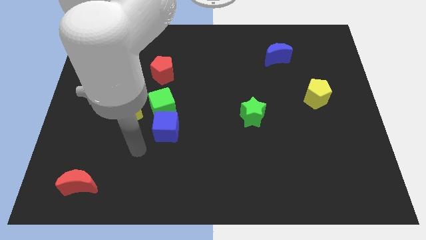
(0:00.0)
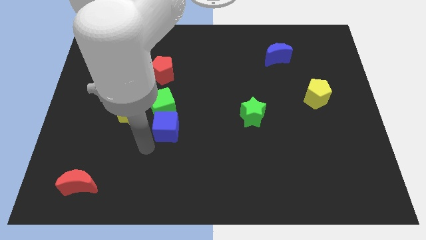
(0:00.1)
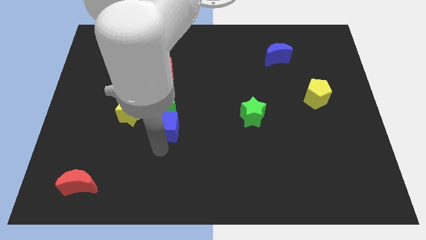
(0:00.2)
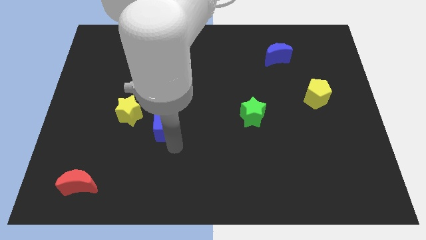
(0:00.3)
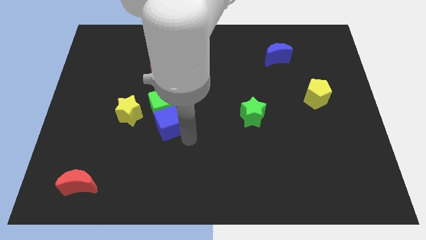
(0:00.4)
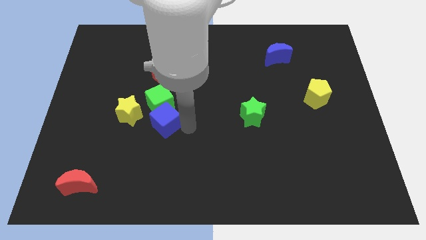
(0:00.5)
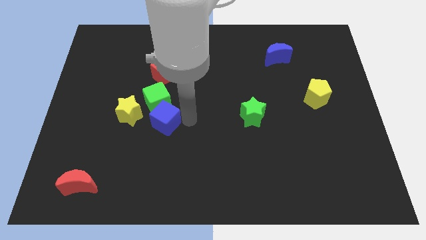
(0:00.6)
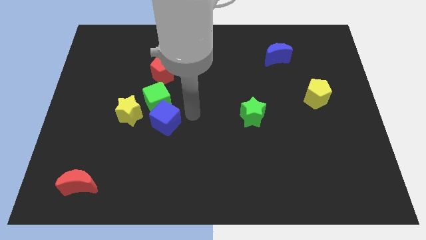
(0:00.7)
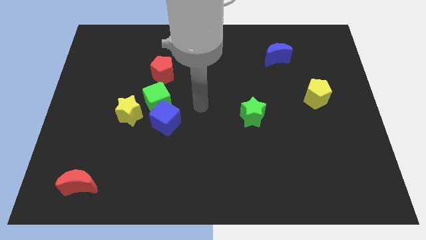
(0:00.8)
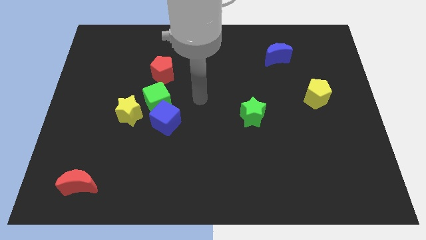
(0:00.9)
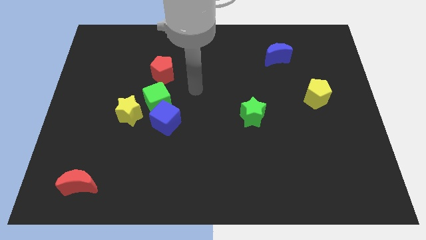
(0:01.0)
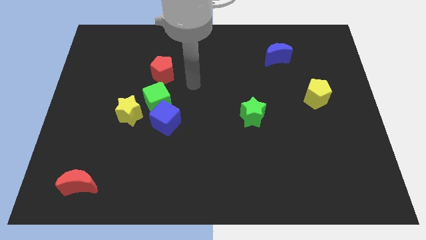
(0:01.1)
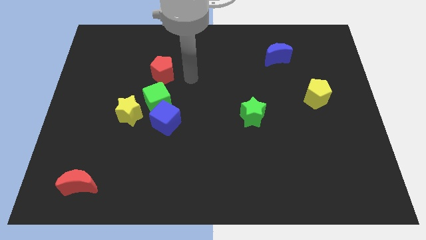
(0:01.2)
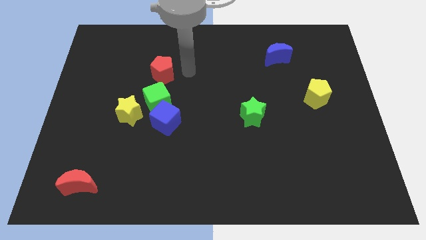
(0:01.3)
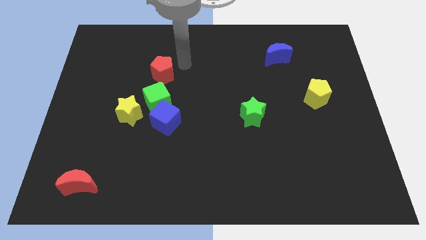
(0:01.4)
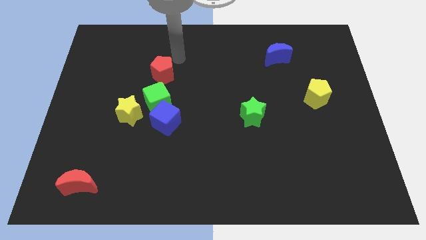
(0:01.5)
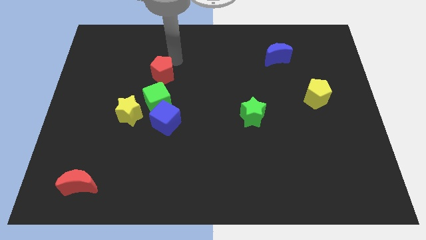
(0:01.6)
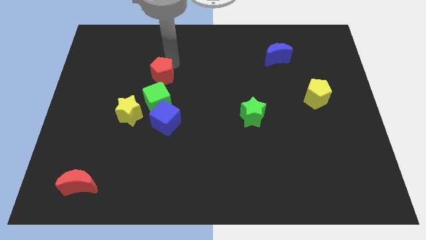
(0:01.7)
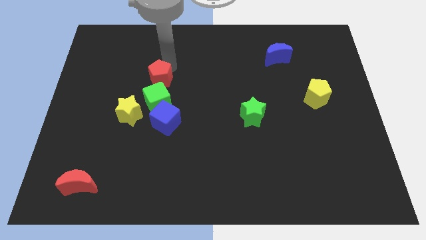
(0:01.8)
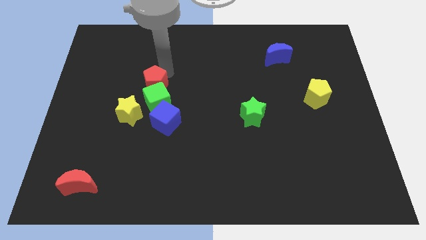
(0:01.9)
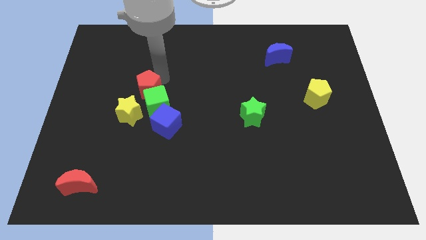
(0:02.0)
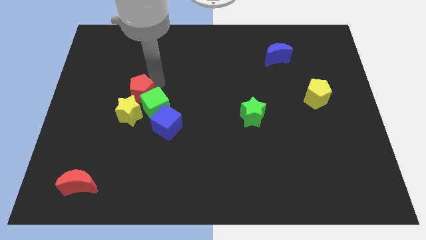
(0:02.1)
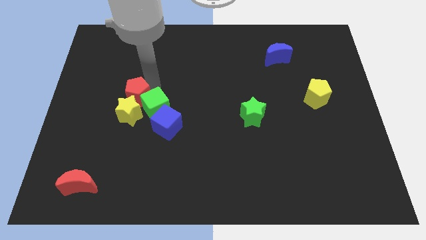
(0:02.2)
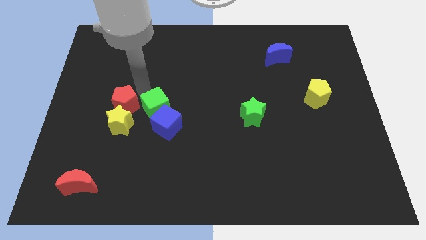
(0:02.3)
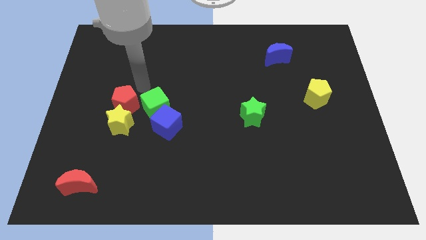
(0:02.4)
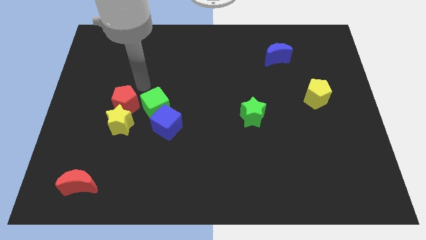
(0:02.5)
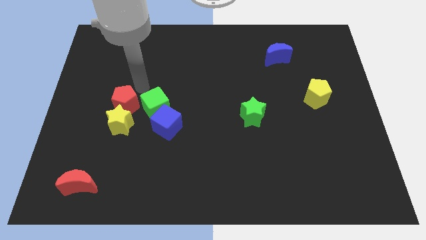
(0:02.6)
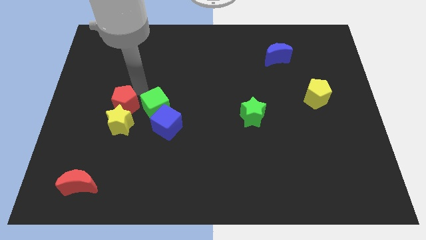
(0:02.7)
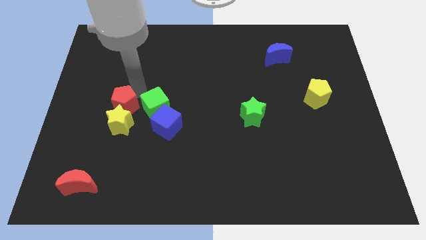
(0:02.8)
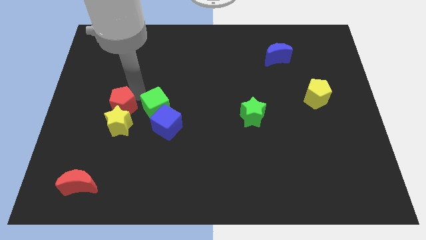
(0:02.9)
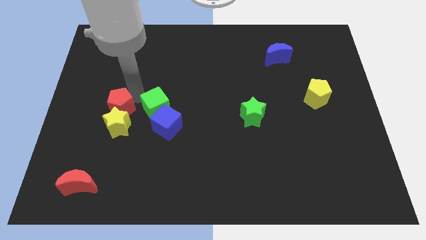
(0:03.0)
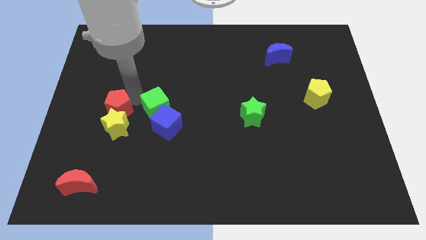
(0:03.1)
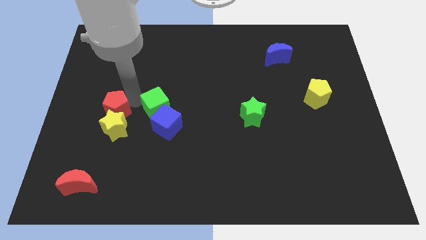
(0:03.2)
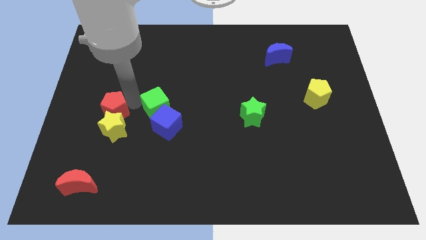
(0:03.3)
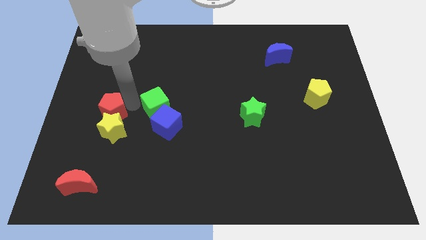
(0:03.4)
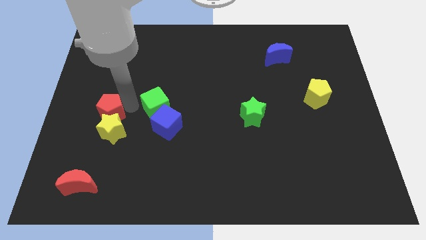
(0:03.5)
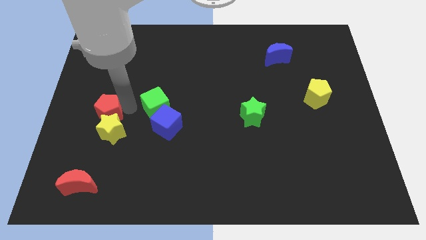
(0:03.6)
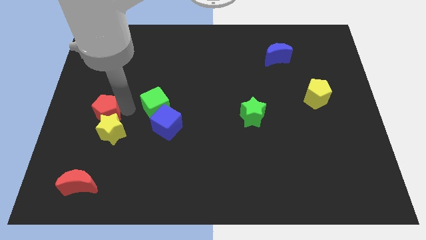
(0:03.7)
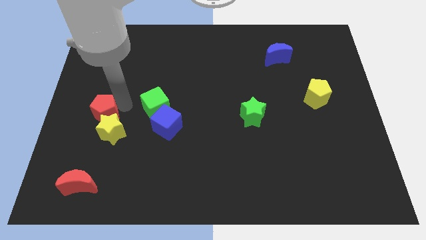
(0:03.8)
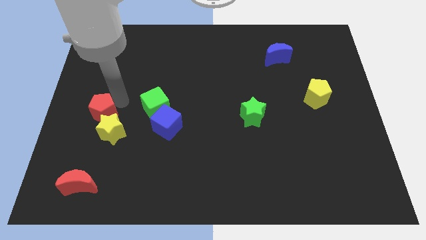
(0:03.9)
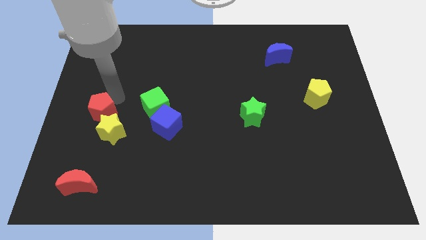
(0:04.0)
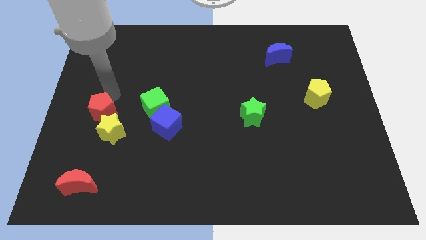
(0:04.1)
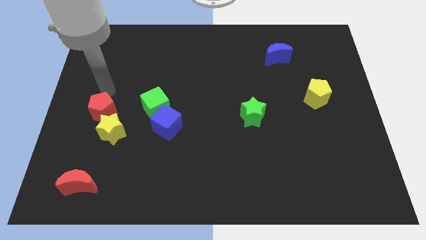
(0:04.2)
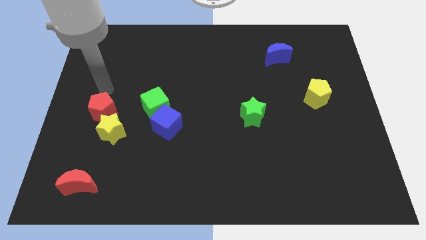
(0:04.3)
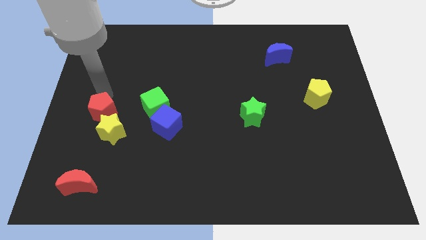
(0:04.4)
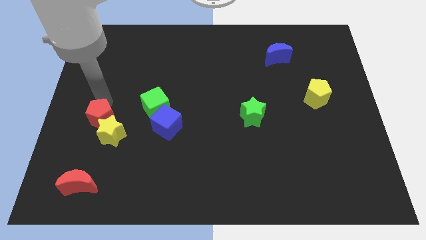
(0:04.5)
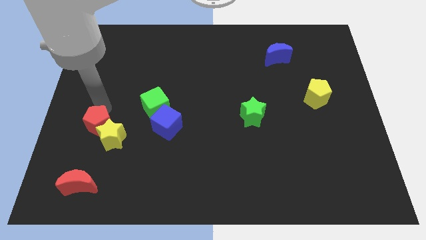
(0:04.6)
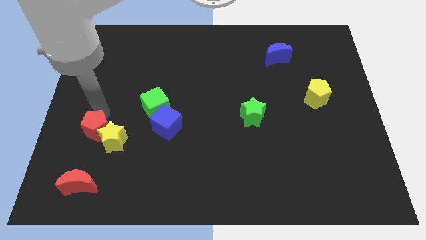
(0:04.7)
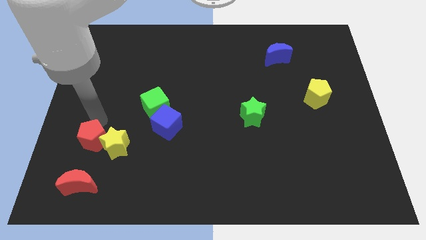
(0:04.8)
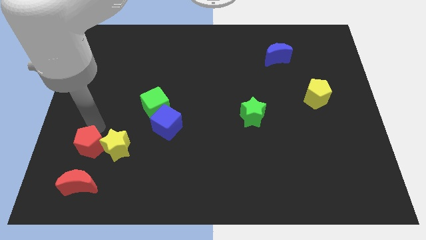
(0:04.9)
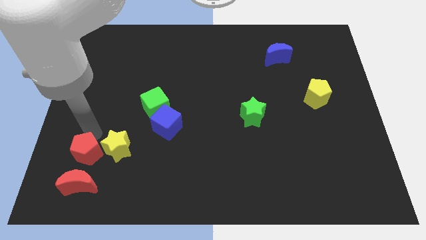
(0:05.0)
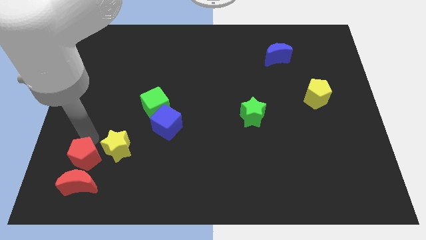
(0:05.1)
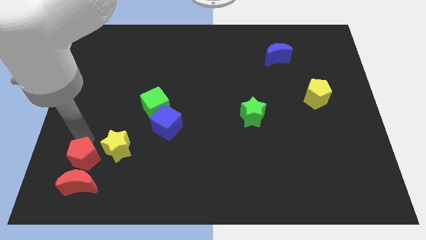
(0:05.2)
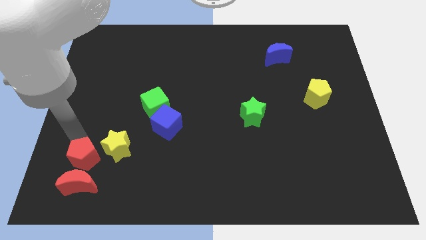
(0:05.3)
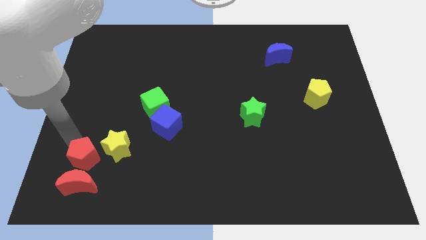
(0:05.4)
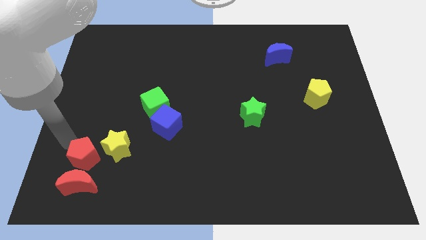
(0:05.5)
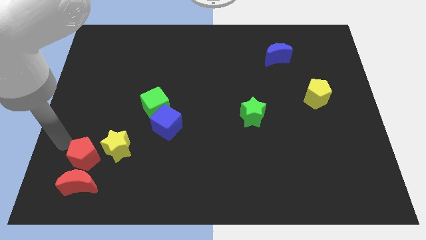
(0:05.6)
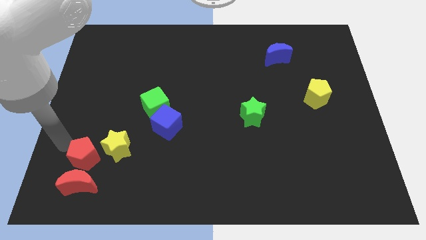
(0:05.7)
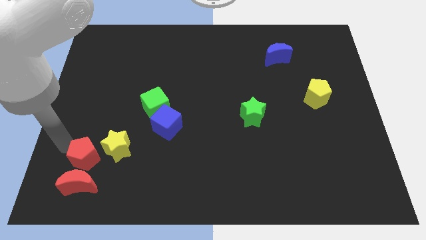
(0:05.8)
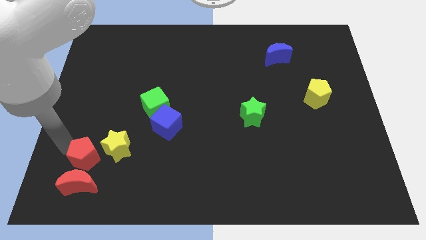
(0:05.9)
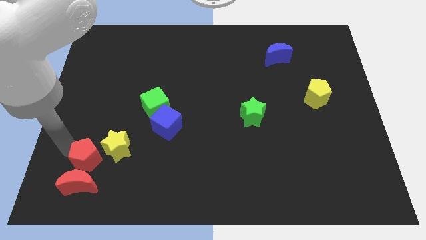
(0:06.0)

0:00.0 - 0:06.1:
push the red pentagon to the red moon

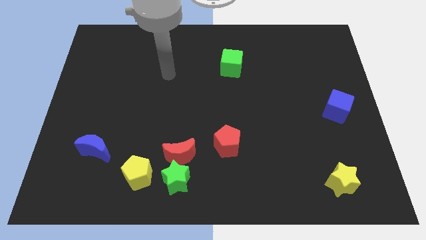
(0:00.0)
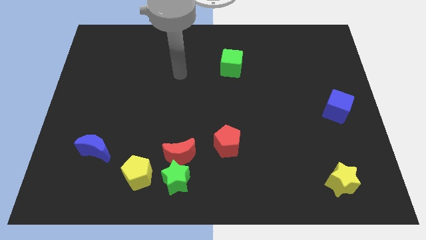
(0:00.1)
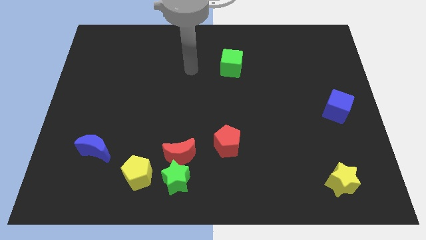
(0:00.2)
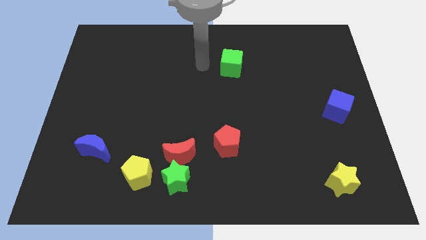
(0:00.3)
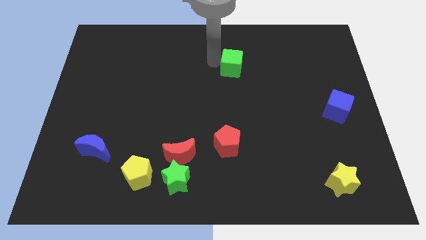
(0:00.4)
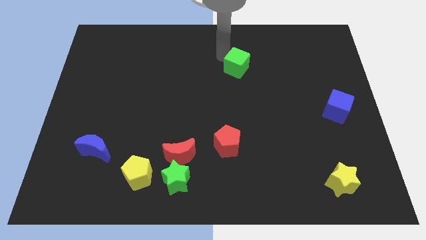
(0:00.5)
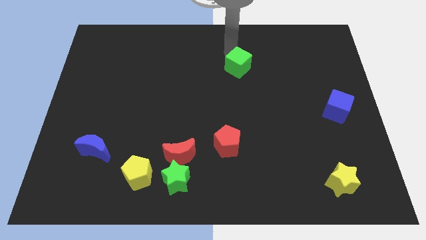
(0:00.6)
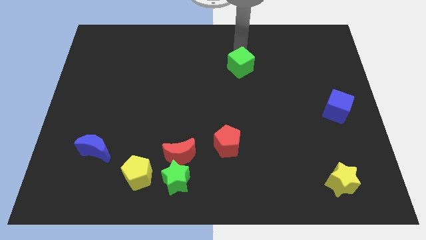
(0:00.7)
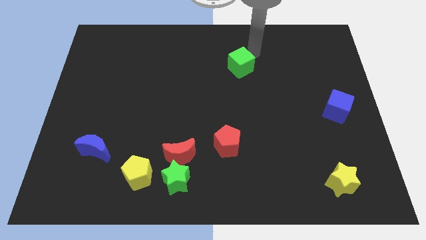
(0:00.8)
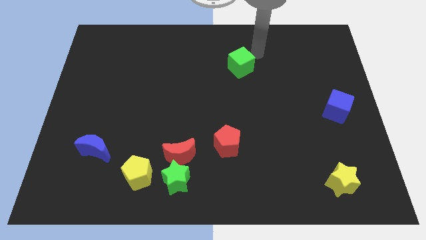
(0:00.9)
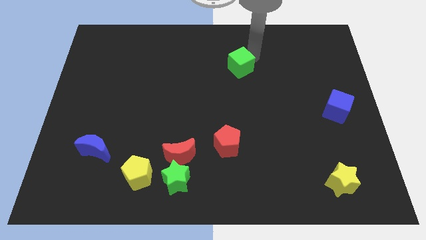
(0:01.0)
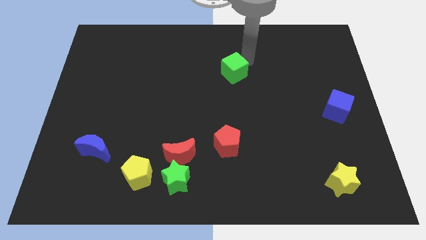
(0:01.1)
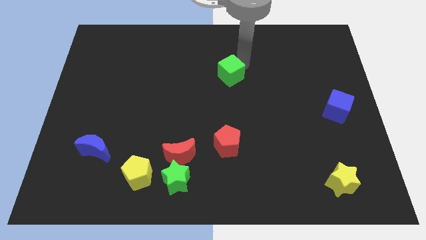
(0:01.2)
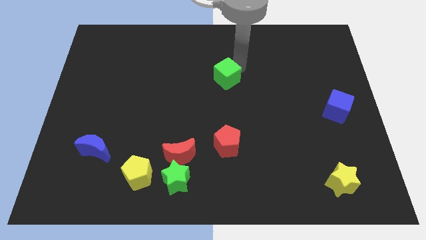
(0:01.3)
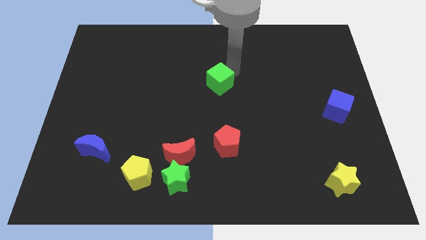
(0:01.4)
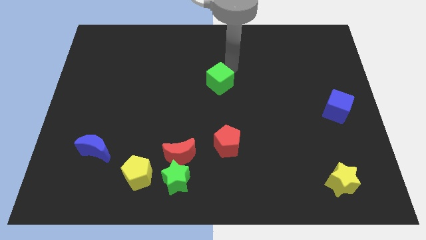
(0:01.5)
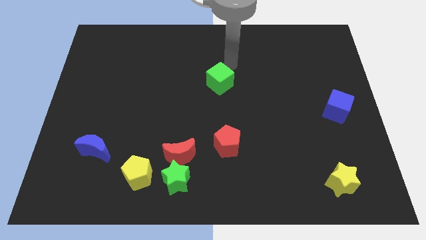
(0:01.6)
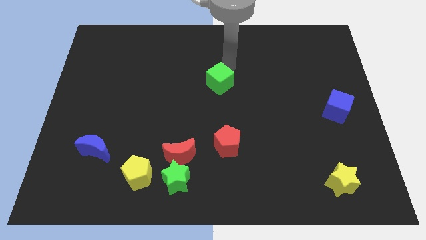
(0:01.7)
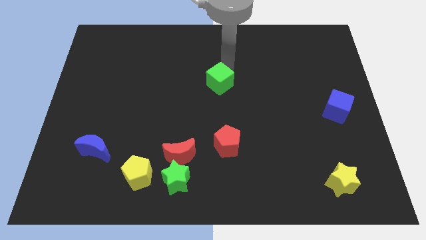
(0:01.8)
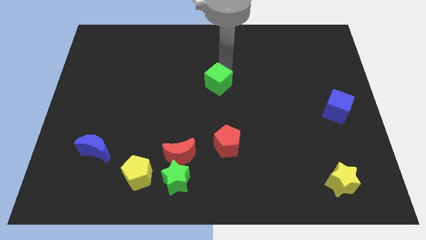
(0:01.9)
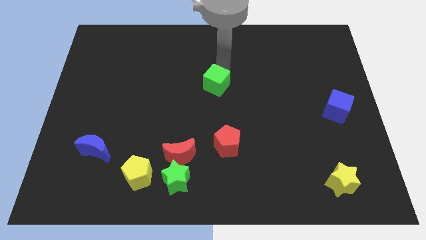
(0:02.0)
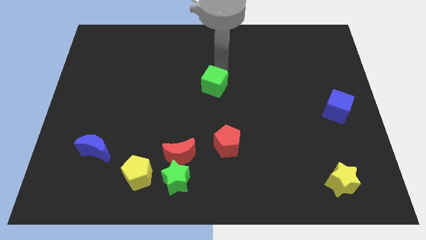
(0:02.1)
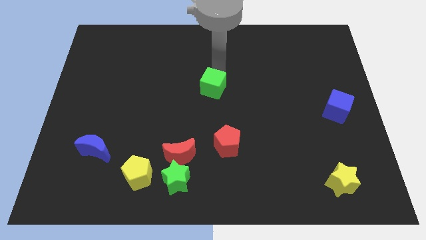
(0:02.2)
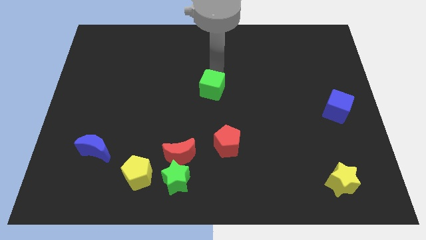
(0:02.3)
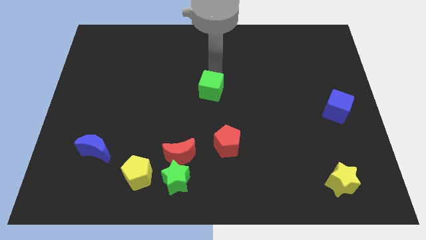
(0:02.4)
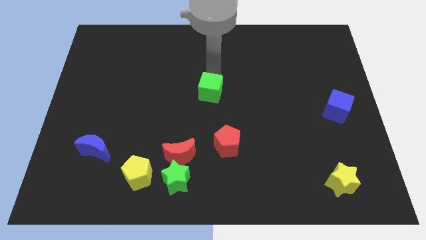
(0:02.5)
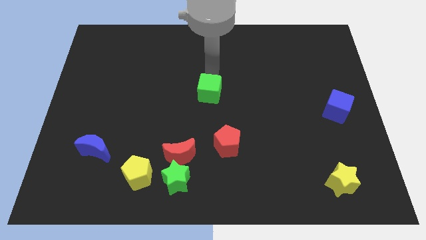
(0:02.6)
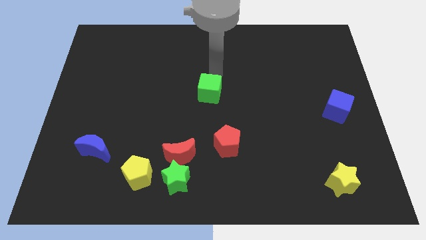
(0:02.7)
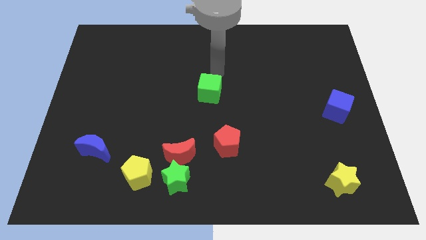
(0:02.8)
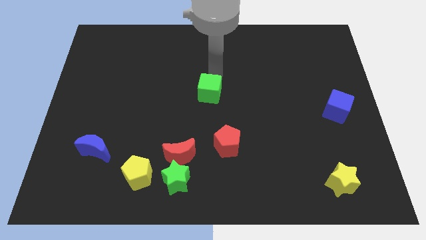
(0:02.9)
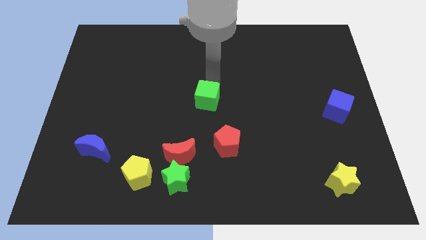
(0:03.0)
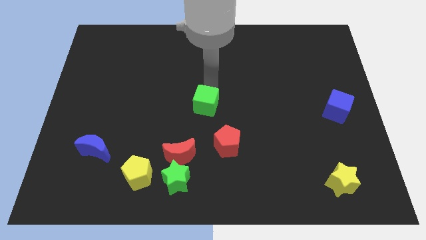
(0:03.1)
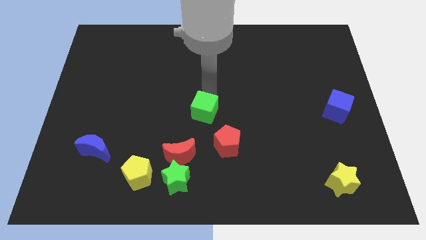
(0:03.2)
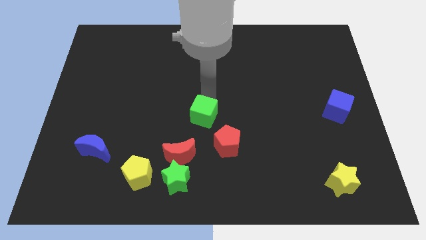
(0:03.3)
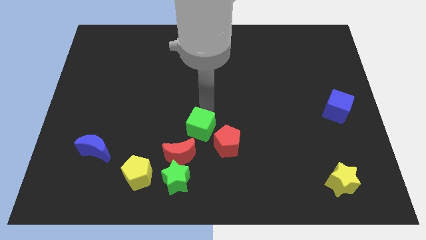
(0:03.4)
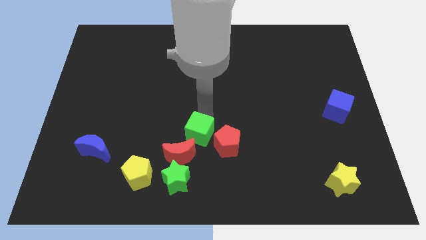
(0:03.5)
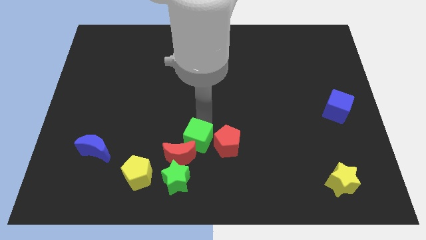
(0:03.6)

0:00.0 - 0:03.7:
slide the green cube towards the red moon
